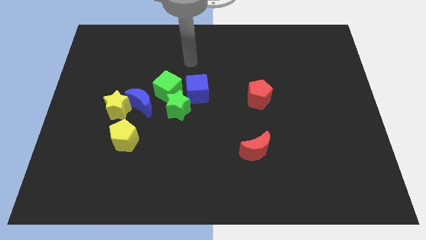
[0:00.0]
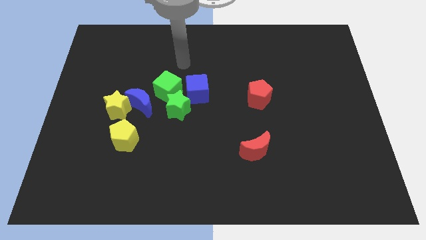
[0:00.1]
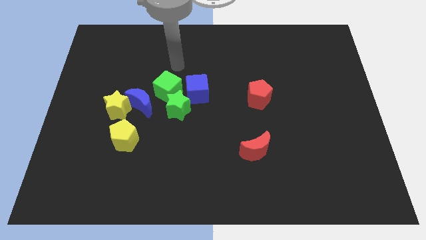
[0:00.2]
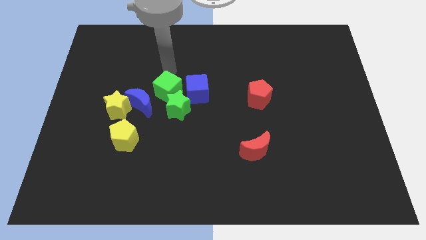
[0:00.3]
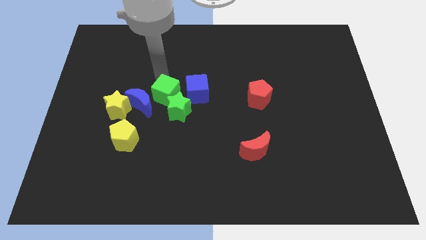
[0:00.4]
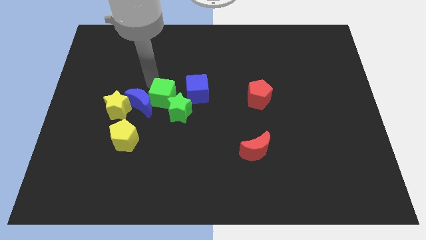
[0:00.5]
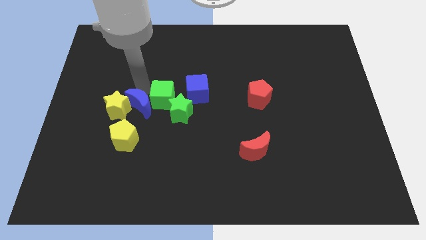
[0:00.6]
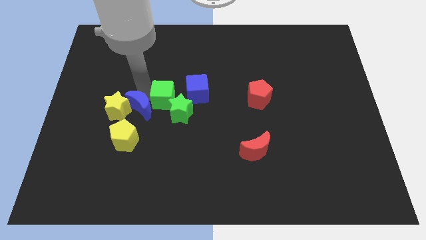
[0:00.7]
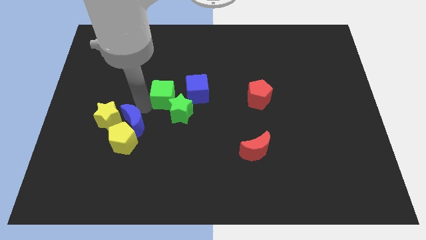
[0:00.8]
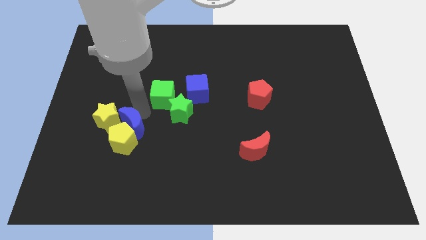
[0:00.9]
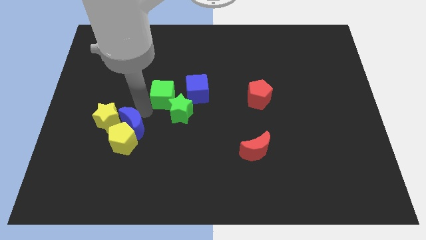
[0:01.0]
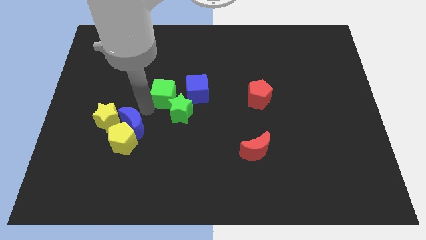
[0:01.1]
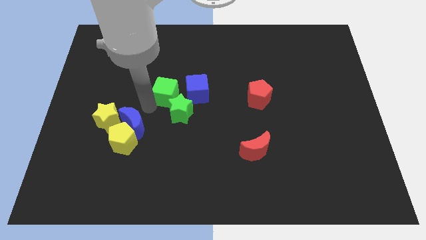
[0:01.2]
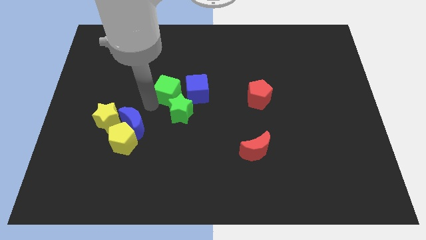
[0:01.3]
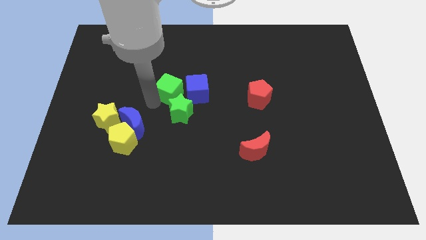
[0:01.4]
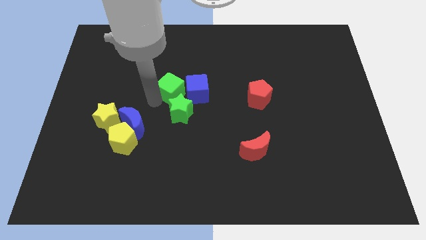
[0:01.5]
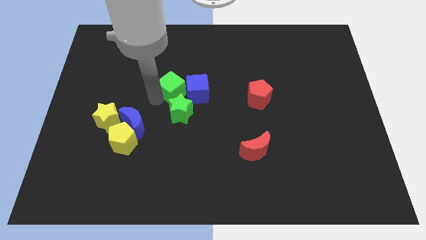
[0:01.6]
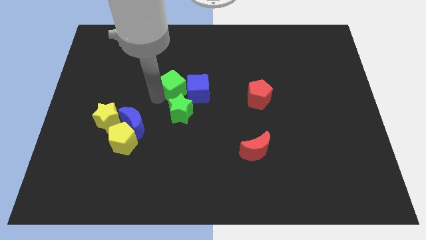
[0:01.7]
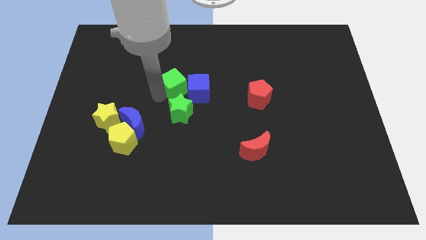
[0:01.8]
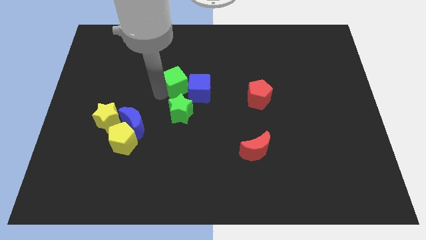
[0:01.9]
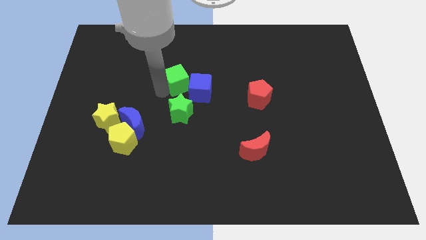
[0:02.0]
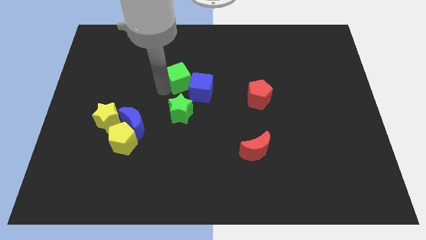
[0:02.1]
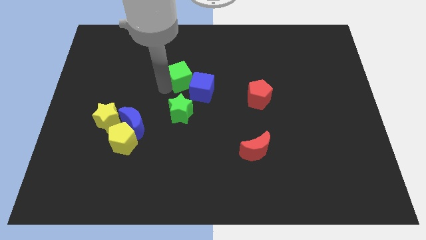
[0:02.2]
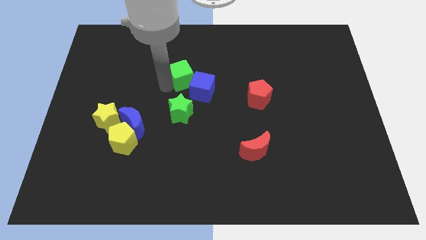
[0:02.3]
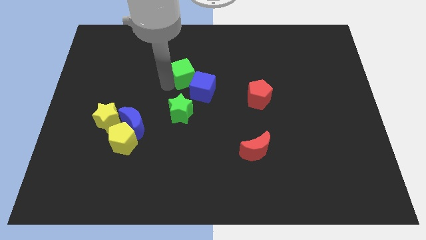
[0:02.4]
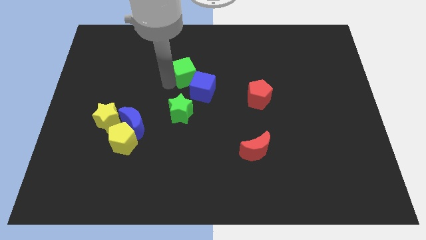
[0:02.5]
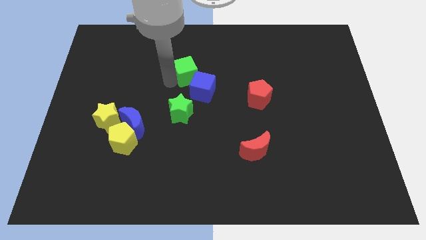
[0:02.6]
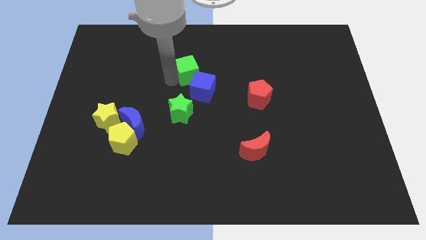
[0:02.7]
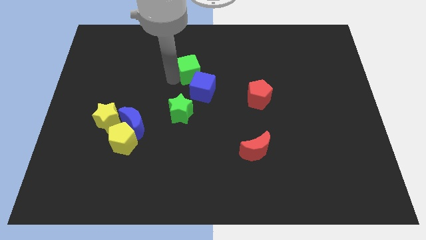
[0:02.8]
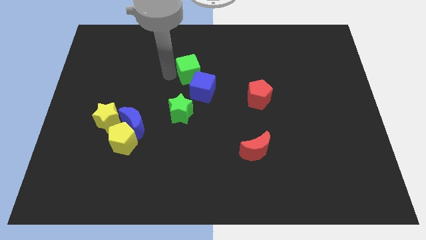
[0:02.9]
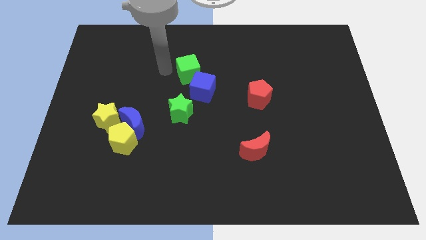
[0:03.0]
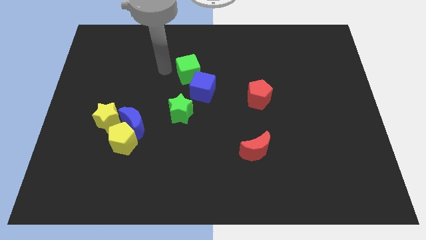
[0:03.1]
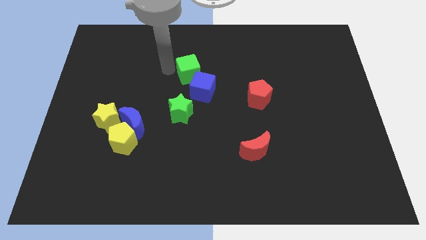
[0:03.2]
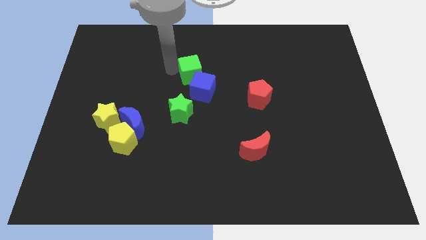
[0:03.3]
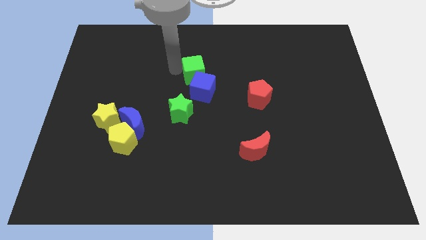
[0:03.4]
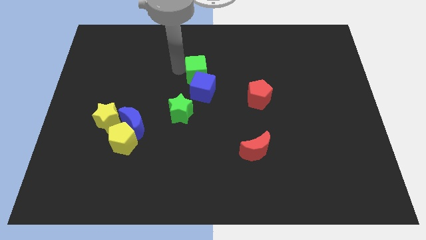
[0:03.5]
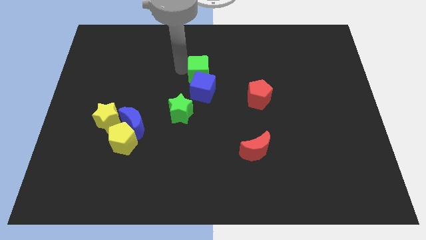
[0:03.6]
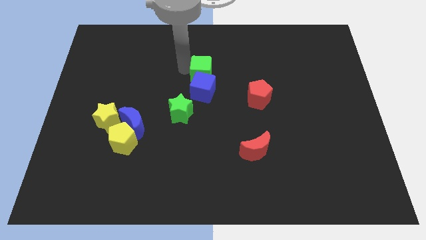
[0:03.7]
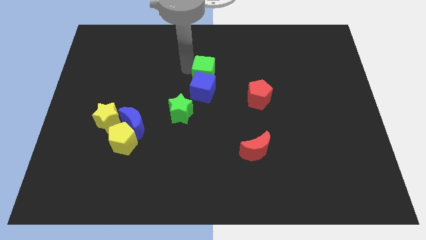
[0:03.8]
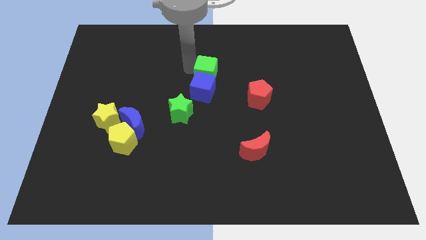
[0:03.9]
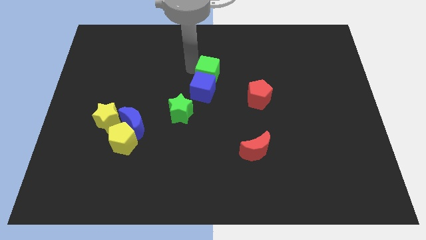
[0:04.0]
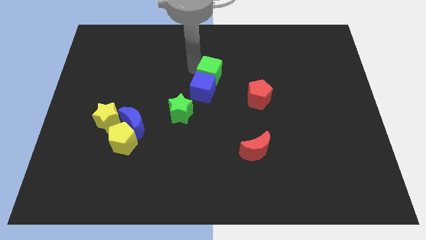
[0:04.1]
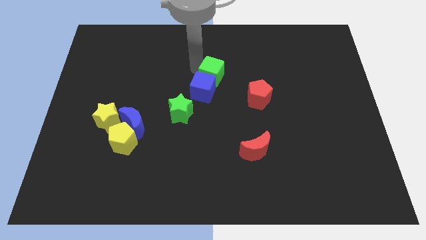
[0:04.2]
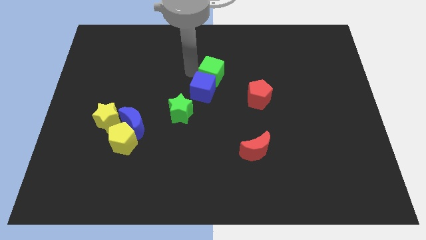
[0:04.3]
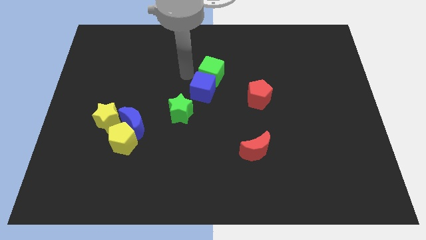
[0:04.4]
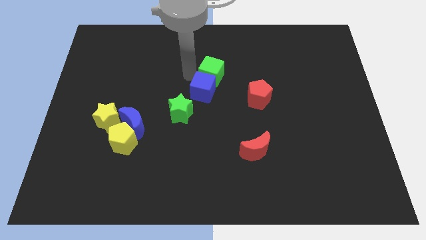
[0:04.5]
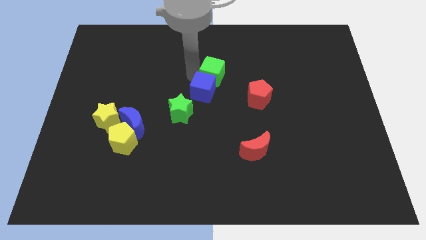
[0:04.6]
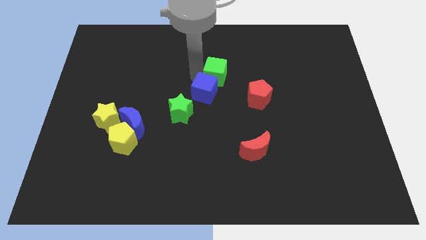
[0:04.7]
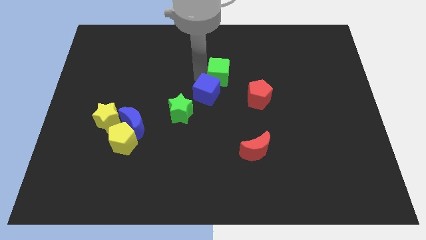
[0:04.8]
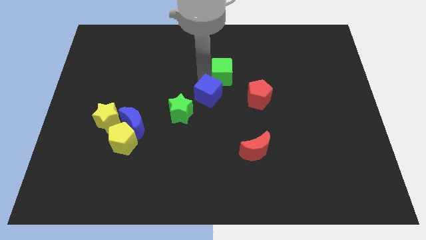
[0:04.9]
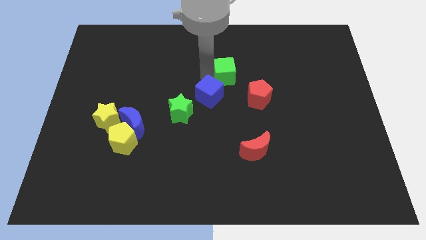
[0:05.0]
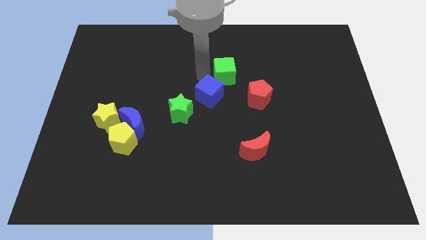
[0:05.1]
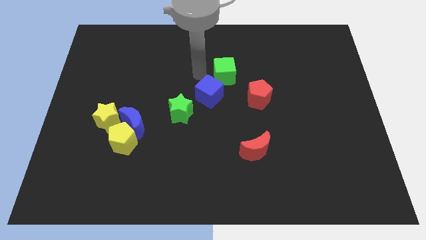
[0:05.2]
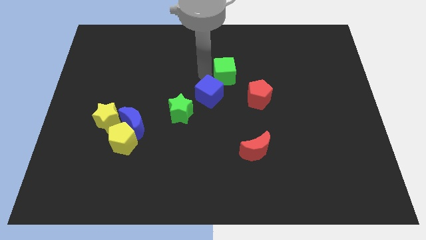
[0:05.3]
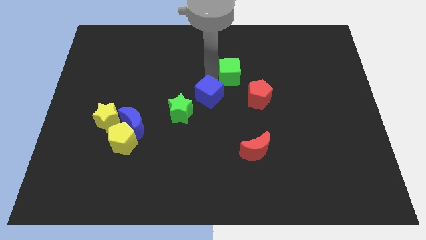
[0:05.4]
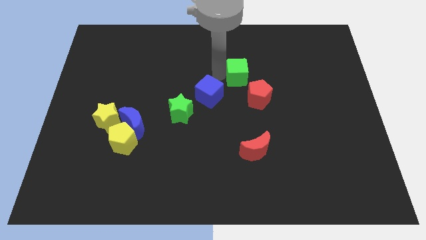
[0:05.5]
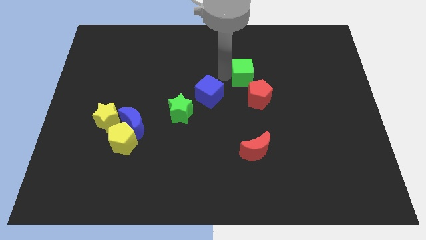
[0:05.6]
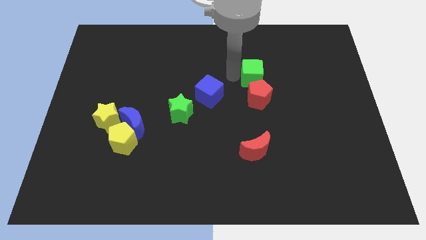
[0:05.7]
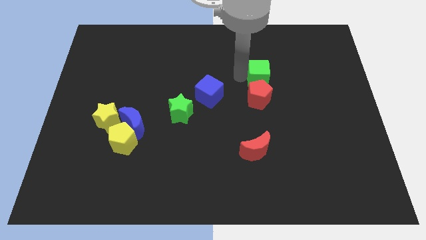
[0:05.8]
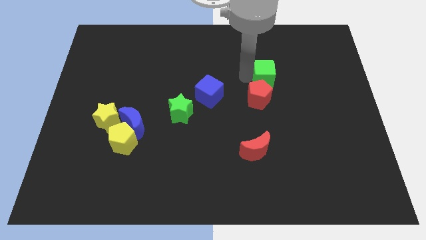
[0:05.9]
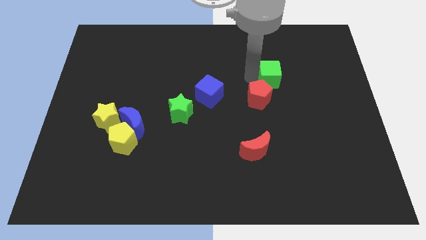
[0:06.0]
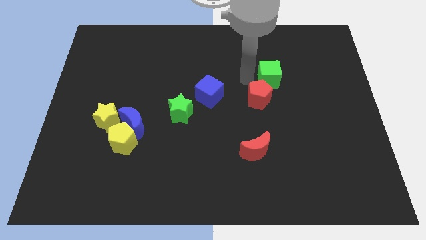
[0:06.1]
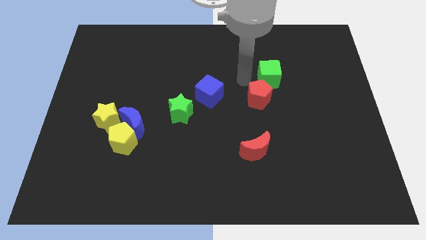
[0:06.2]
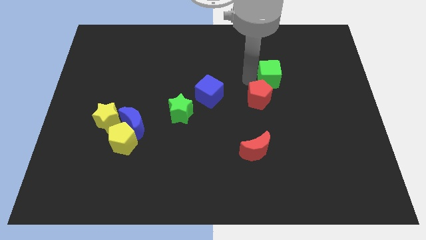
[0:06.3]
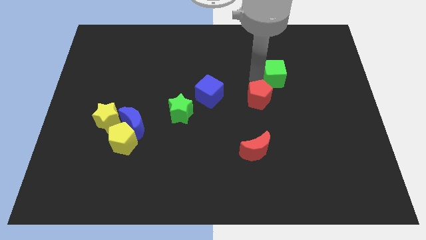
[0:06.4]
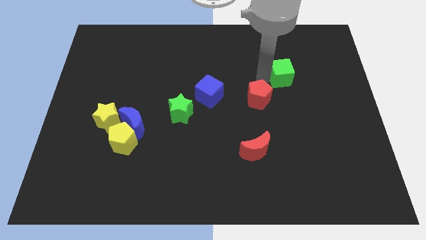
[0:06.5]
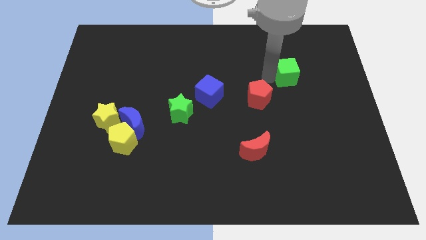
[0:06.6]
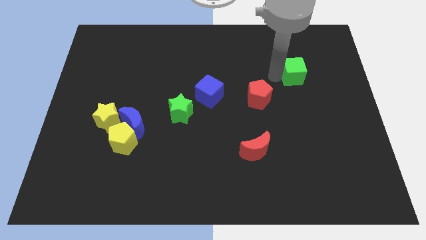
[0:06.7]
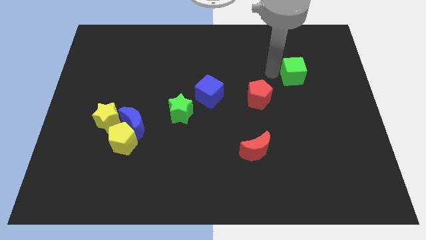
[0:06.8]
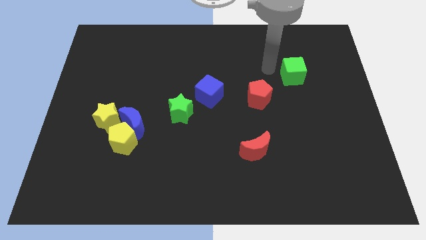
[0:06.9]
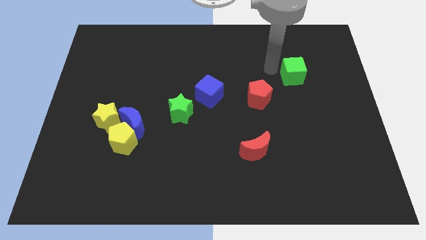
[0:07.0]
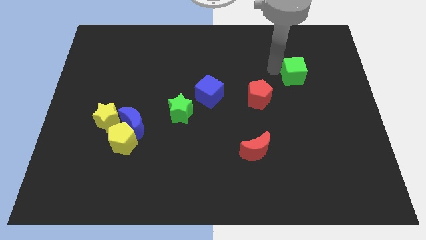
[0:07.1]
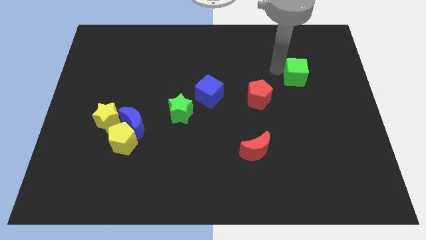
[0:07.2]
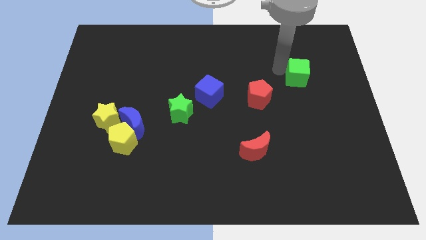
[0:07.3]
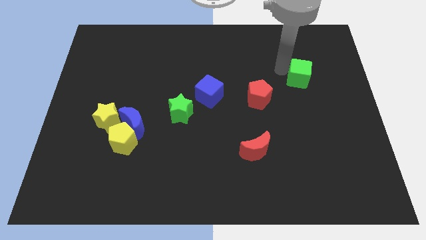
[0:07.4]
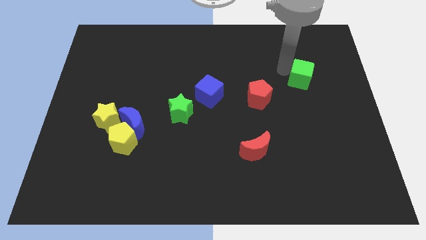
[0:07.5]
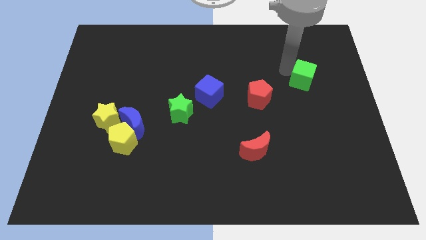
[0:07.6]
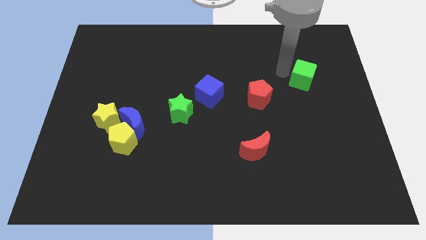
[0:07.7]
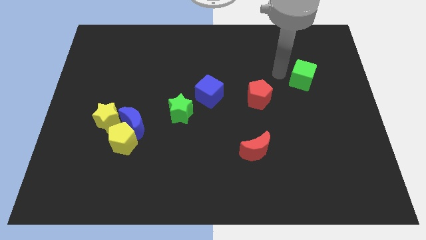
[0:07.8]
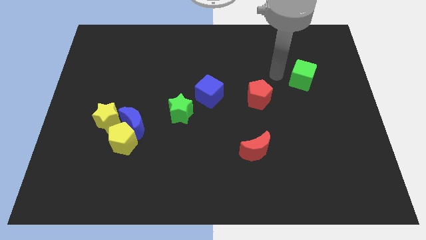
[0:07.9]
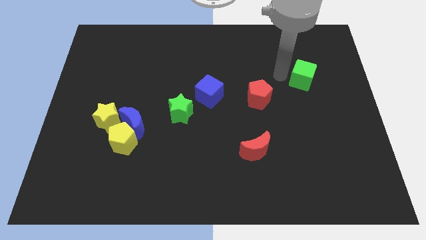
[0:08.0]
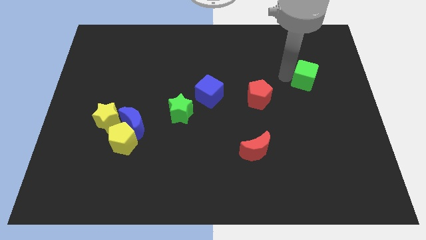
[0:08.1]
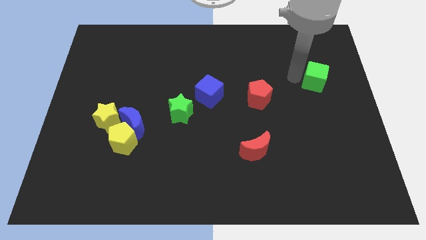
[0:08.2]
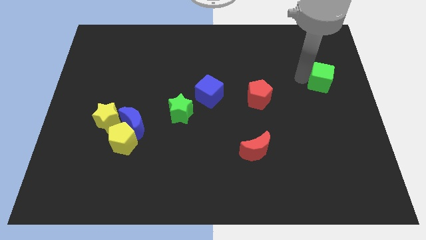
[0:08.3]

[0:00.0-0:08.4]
slide the green cube to the center right
